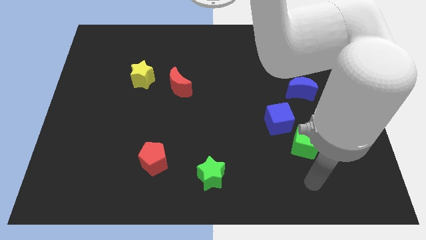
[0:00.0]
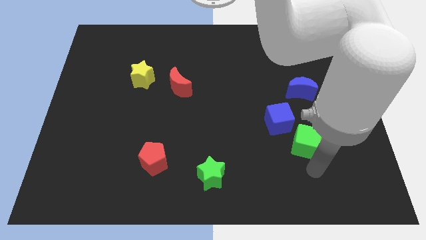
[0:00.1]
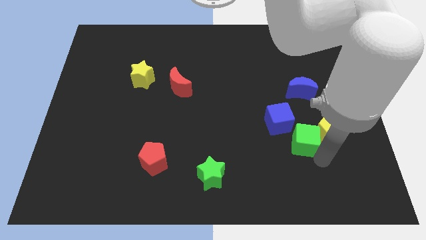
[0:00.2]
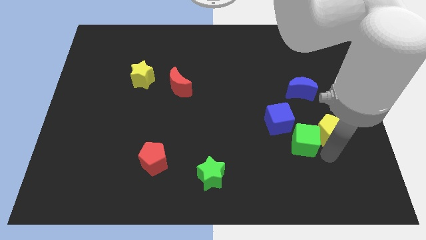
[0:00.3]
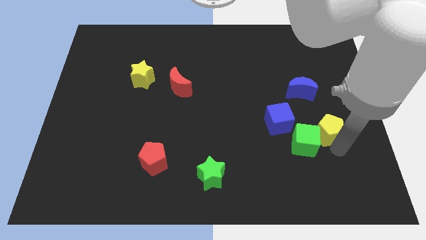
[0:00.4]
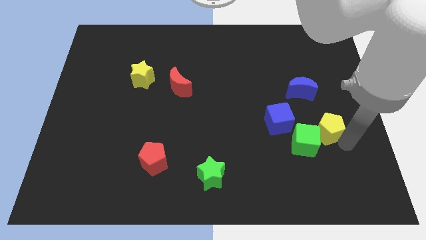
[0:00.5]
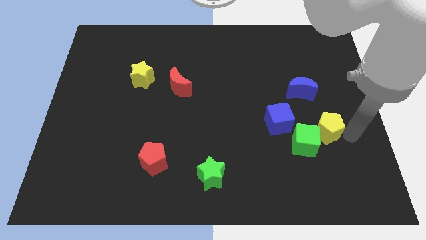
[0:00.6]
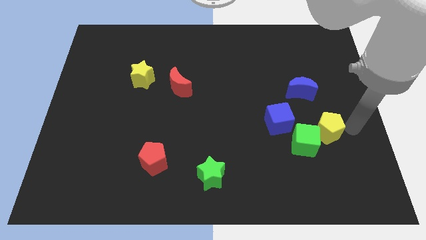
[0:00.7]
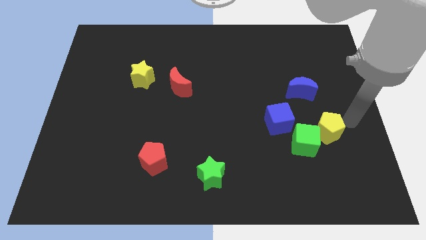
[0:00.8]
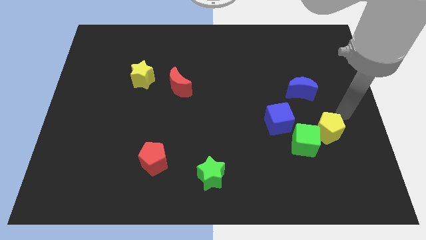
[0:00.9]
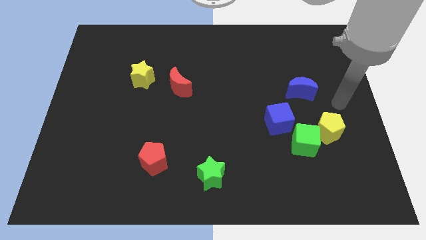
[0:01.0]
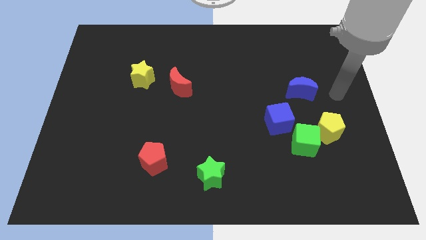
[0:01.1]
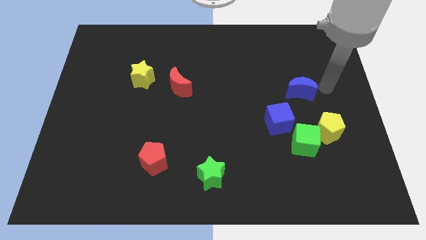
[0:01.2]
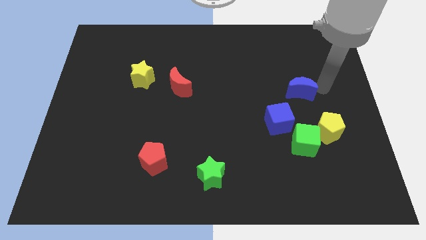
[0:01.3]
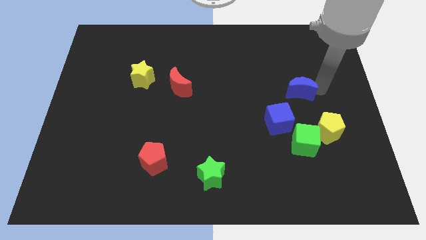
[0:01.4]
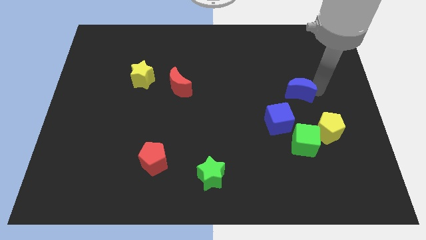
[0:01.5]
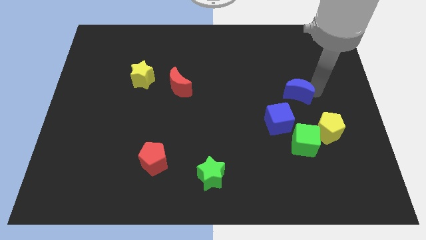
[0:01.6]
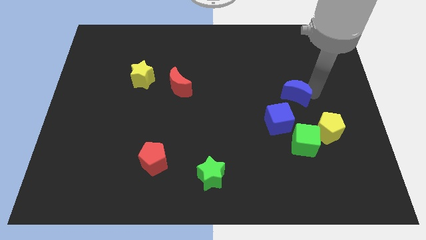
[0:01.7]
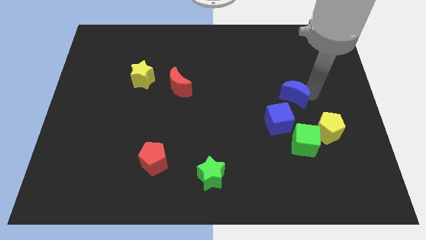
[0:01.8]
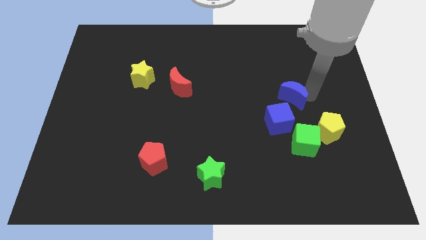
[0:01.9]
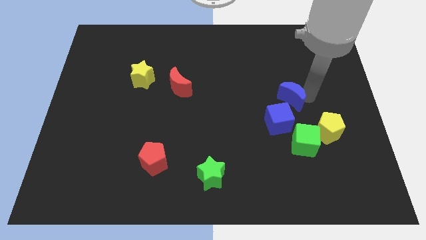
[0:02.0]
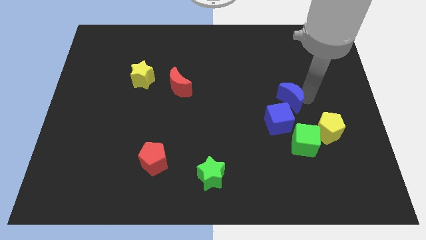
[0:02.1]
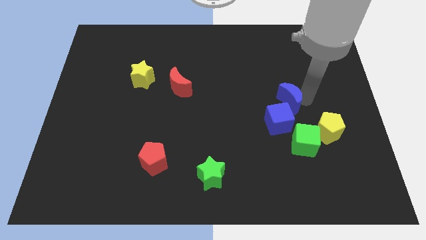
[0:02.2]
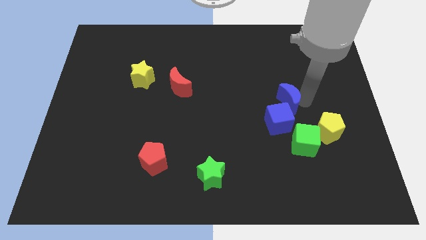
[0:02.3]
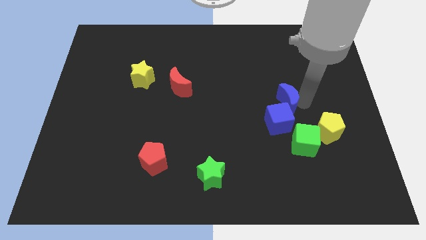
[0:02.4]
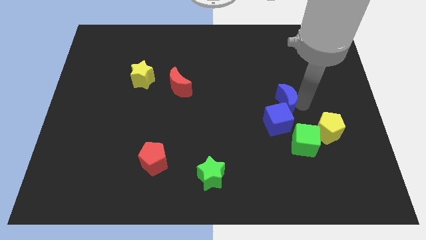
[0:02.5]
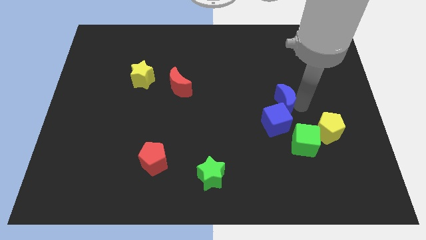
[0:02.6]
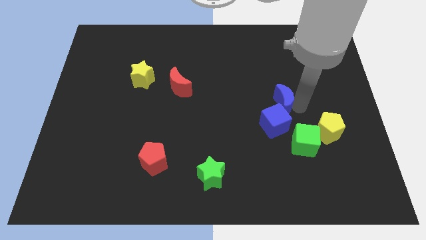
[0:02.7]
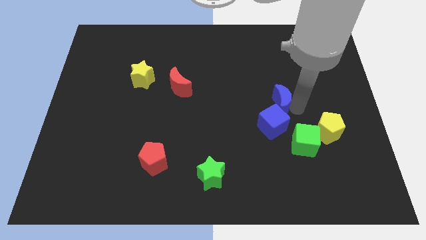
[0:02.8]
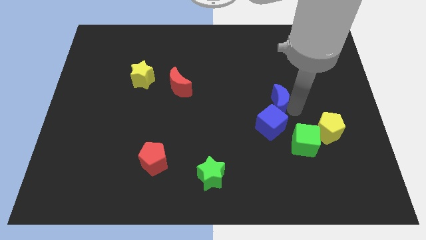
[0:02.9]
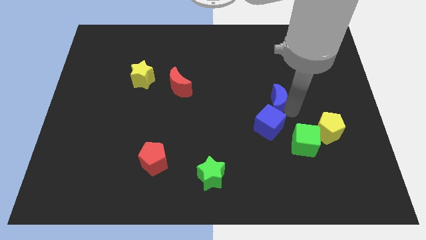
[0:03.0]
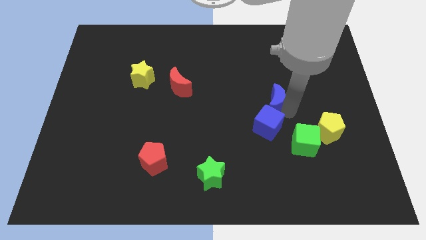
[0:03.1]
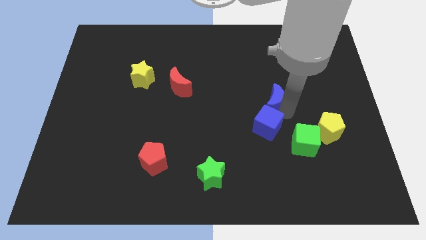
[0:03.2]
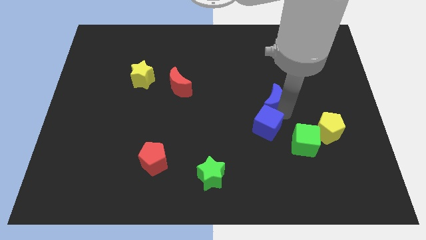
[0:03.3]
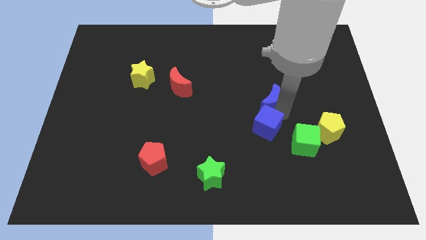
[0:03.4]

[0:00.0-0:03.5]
slightly push the blue moon to the left

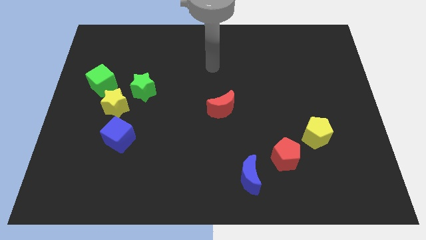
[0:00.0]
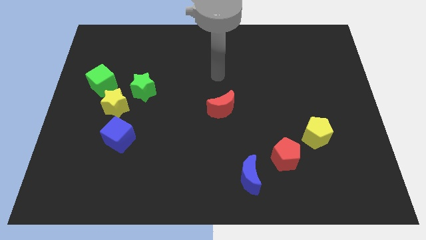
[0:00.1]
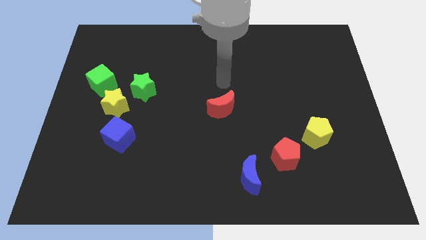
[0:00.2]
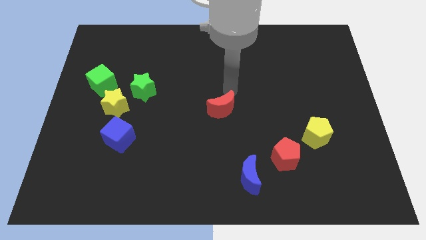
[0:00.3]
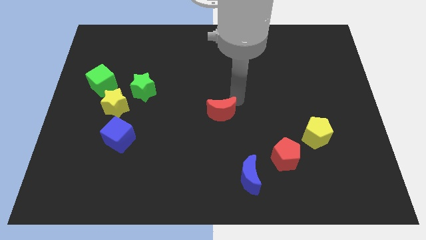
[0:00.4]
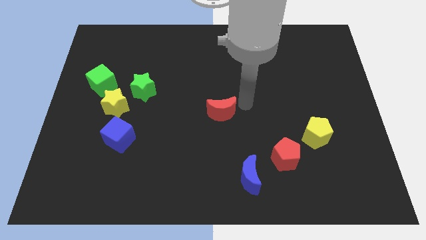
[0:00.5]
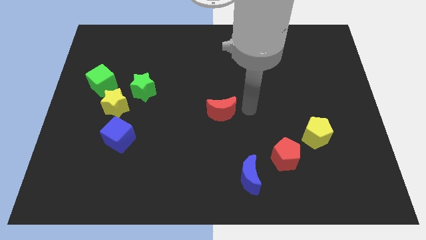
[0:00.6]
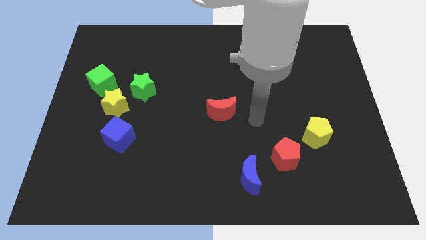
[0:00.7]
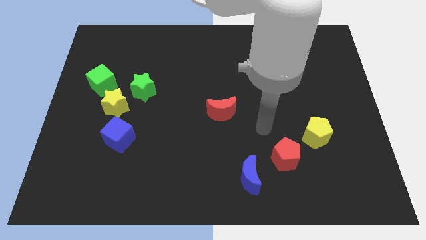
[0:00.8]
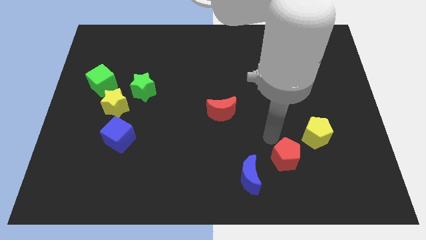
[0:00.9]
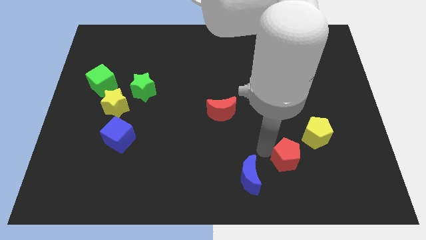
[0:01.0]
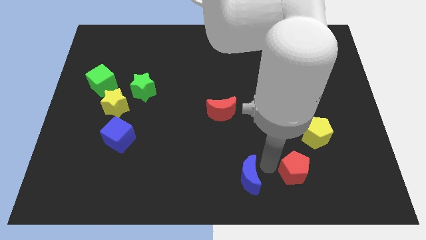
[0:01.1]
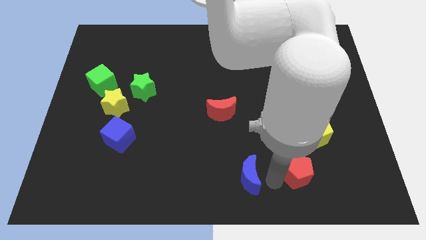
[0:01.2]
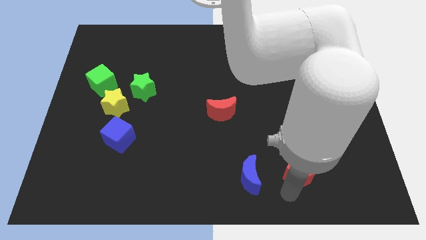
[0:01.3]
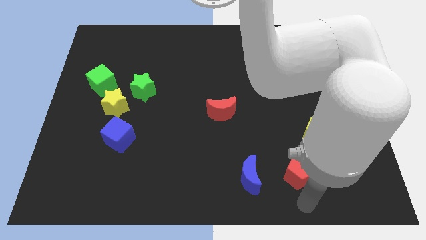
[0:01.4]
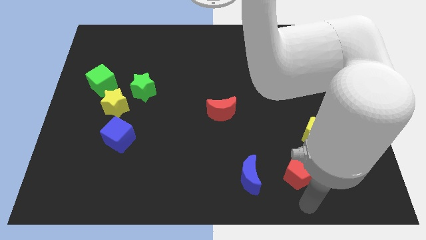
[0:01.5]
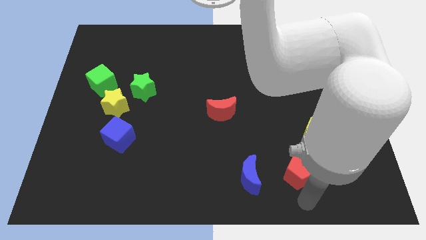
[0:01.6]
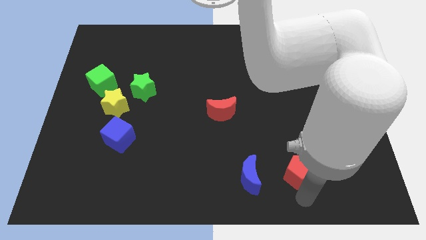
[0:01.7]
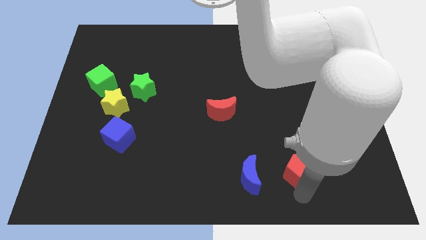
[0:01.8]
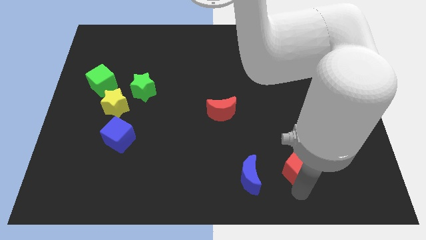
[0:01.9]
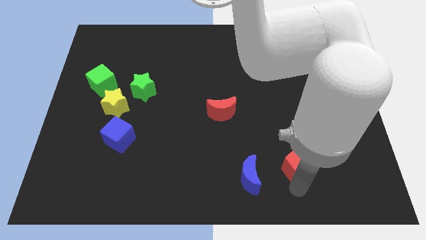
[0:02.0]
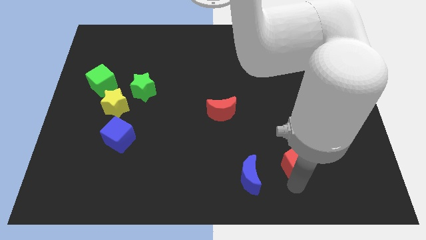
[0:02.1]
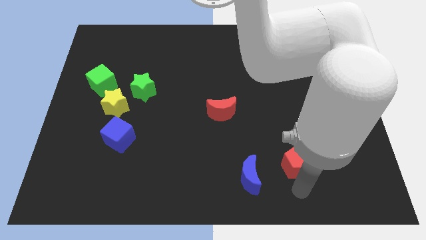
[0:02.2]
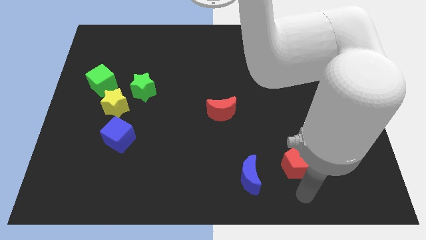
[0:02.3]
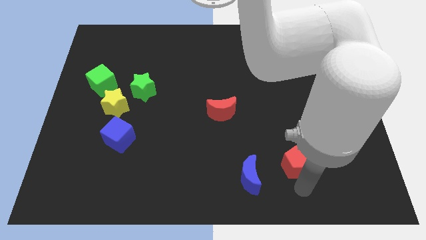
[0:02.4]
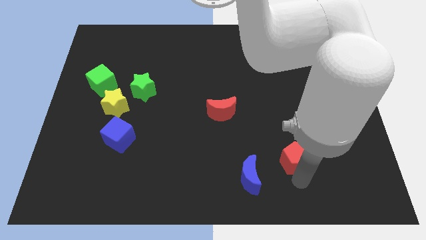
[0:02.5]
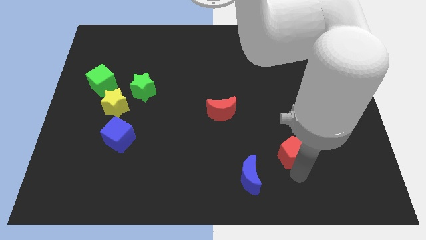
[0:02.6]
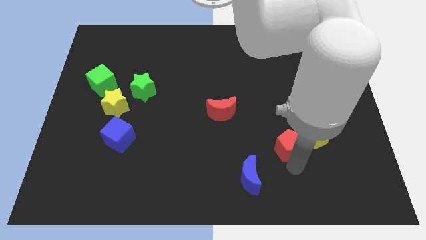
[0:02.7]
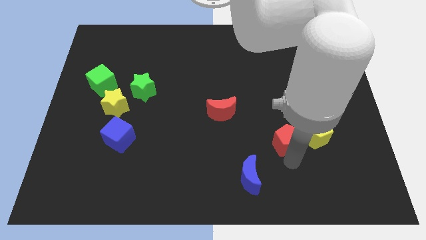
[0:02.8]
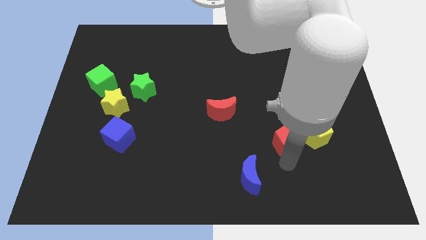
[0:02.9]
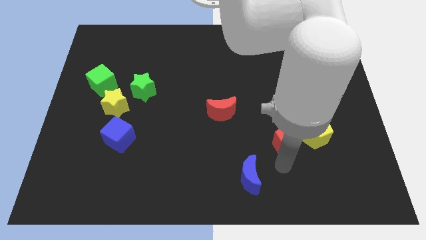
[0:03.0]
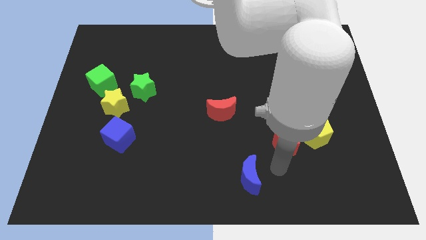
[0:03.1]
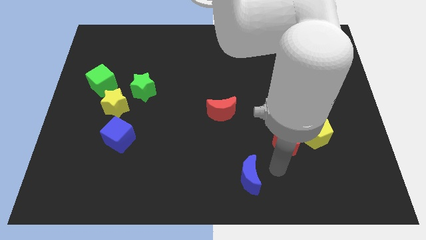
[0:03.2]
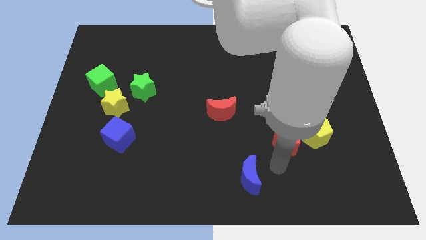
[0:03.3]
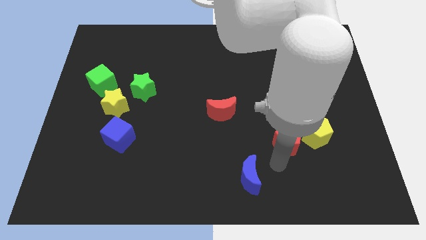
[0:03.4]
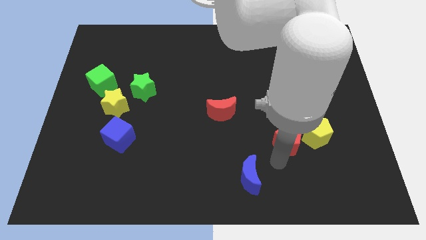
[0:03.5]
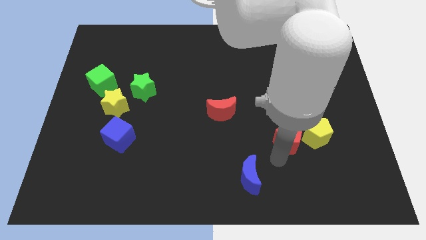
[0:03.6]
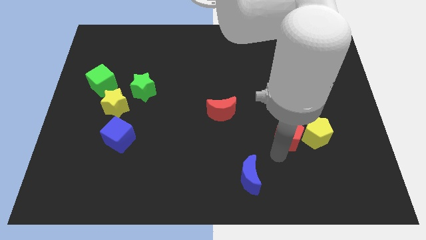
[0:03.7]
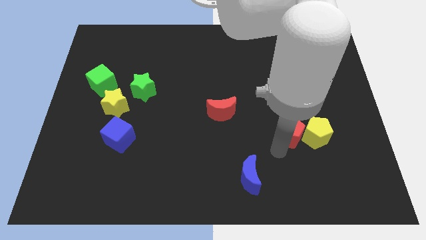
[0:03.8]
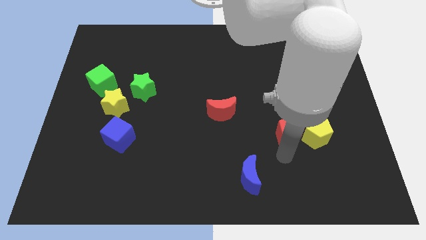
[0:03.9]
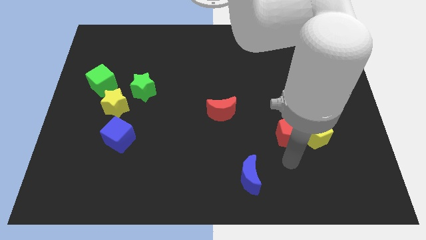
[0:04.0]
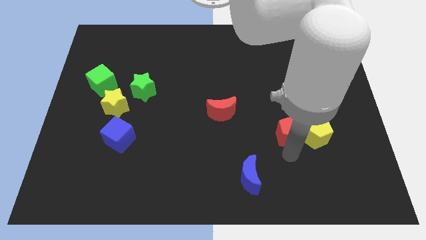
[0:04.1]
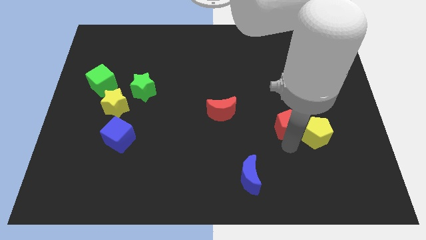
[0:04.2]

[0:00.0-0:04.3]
slightly slide the red pentagon up
